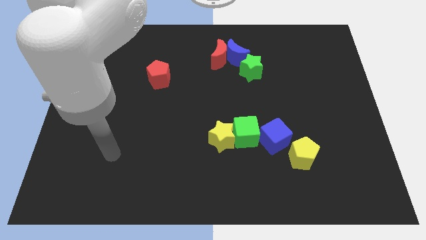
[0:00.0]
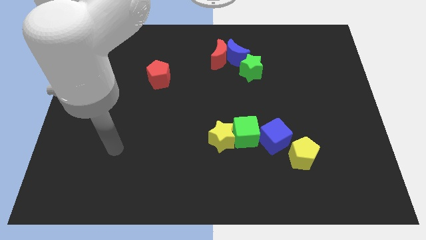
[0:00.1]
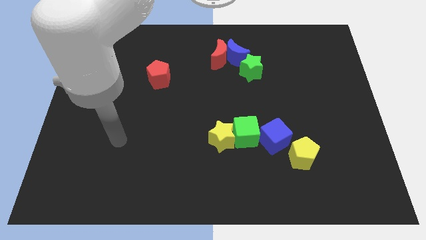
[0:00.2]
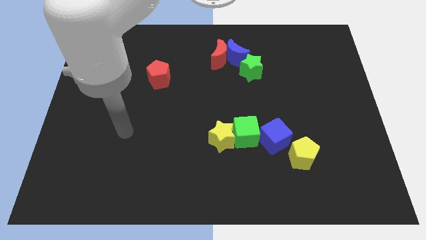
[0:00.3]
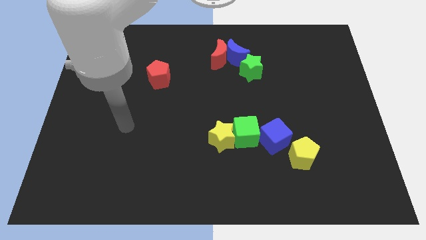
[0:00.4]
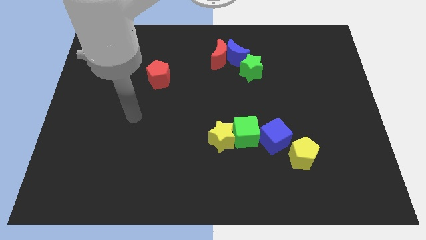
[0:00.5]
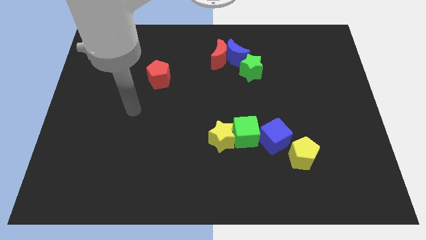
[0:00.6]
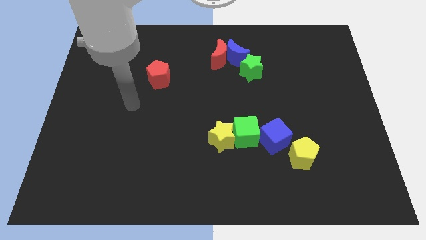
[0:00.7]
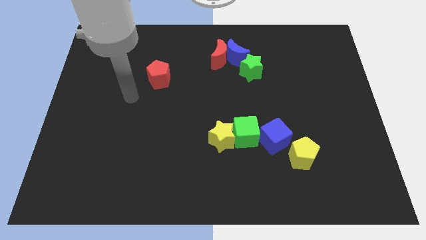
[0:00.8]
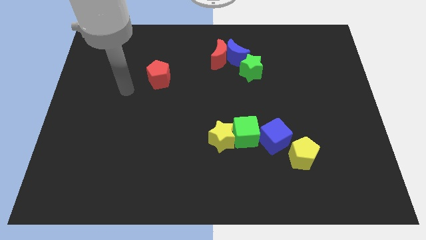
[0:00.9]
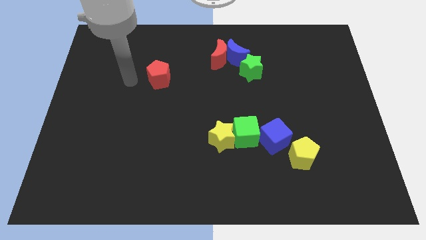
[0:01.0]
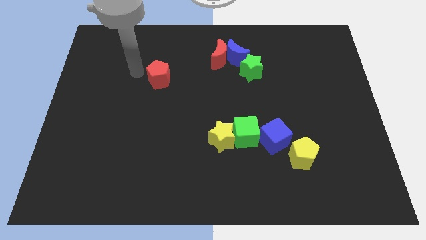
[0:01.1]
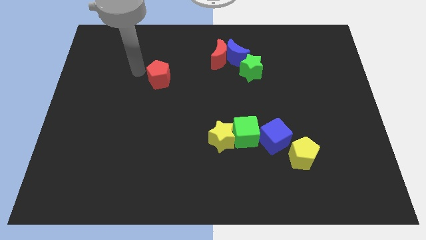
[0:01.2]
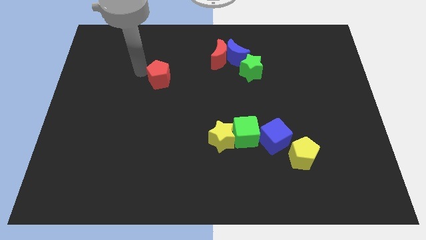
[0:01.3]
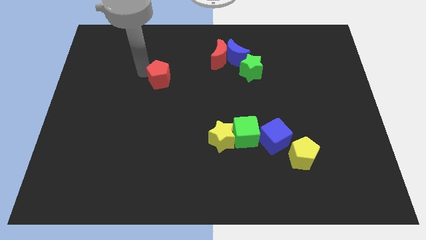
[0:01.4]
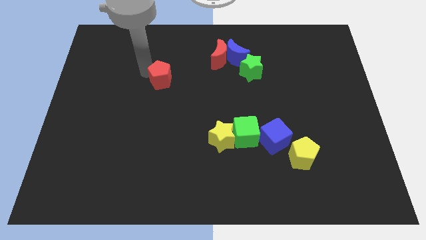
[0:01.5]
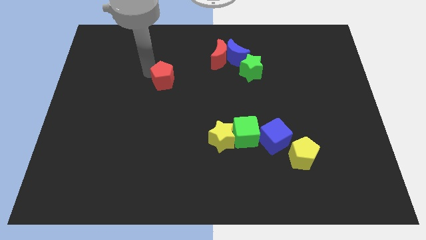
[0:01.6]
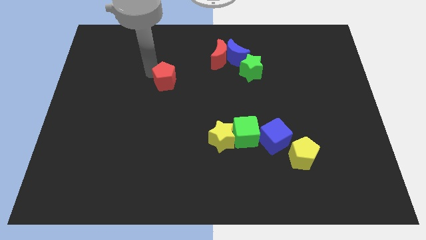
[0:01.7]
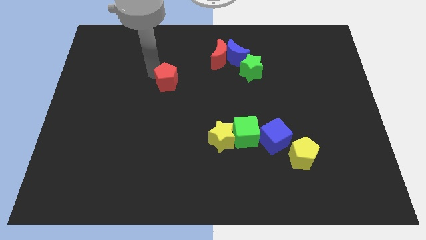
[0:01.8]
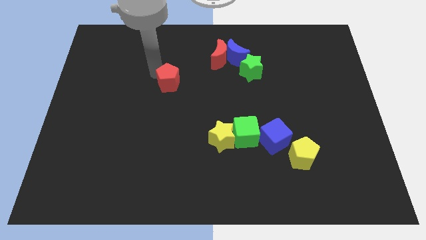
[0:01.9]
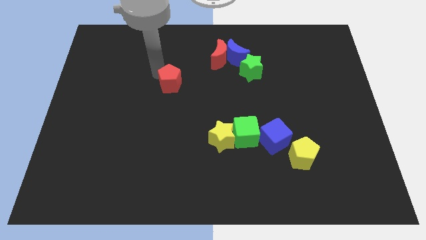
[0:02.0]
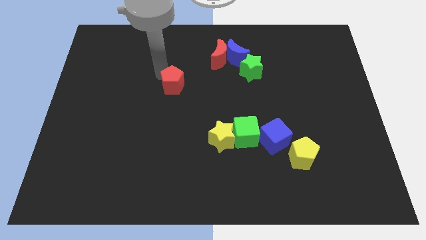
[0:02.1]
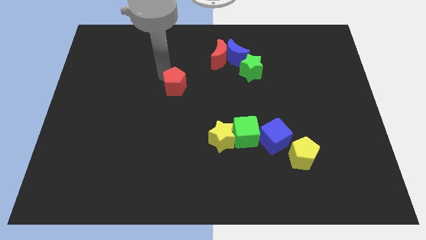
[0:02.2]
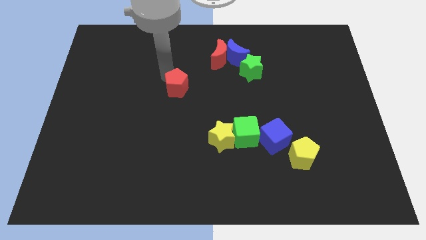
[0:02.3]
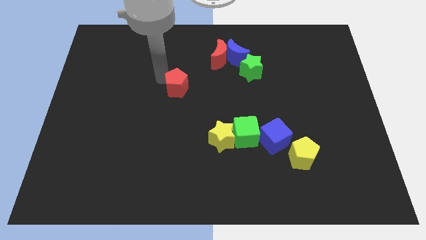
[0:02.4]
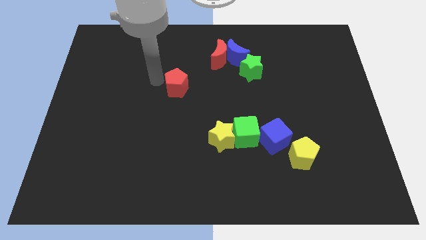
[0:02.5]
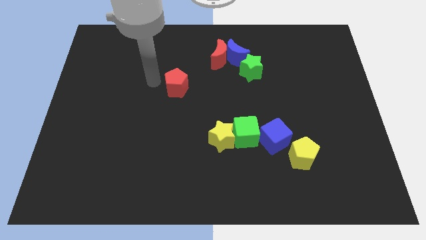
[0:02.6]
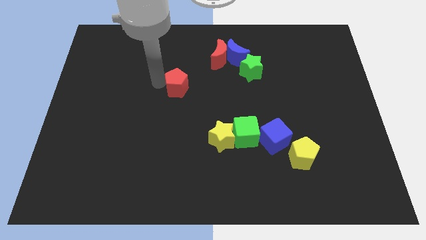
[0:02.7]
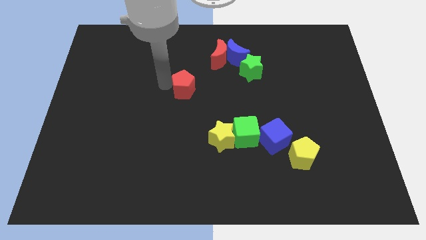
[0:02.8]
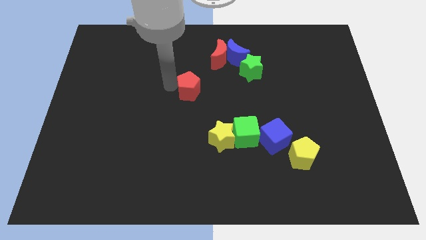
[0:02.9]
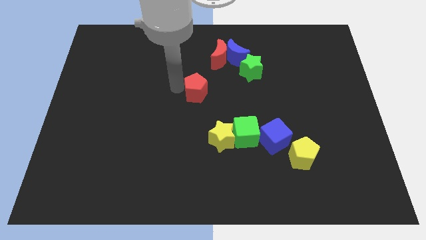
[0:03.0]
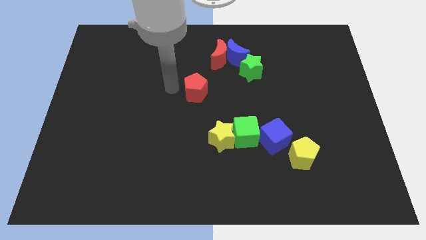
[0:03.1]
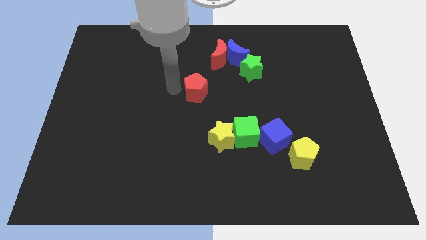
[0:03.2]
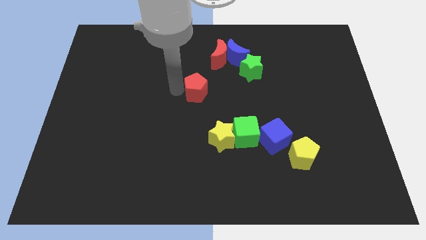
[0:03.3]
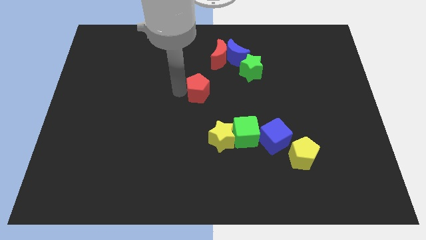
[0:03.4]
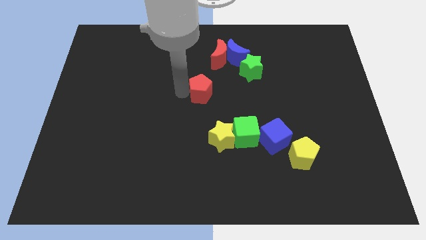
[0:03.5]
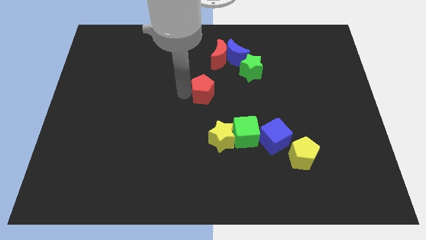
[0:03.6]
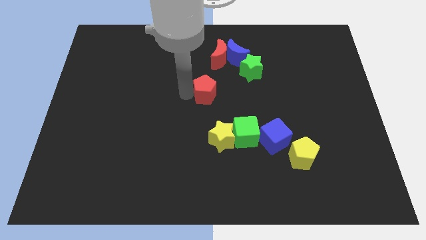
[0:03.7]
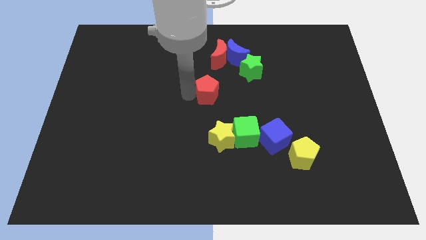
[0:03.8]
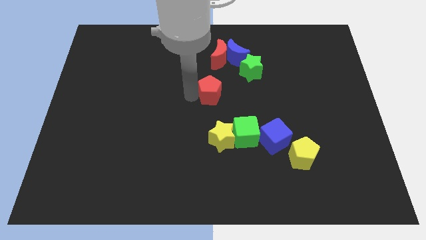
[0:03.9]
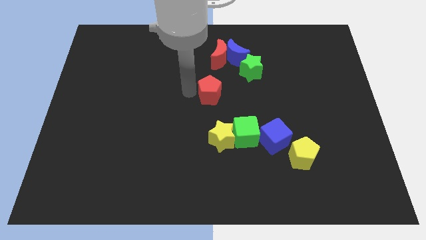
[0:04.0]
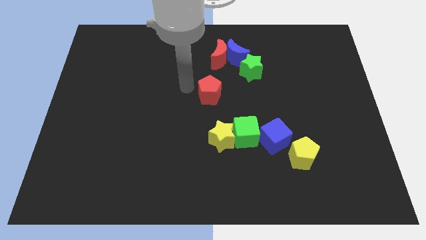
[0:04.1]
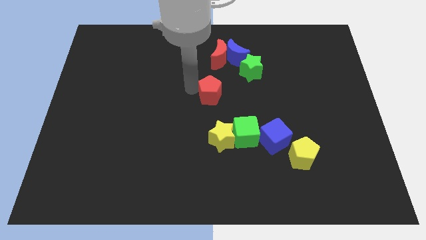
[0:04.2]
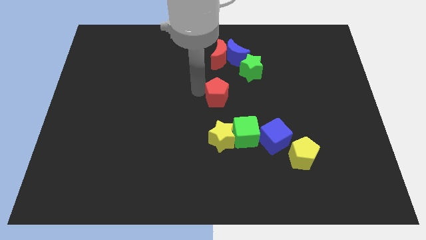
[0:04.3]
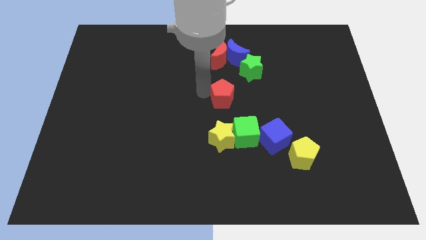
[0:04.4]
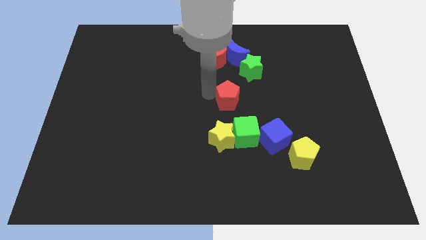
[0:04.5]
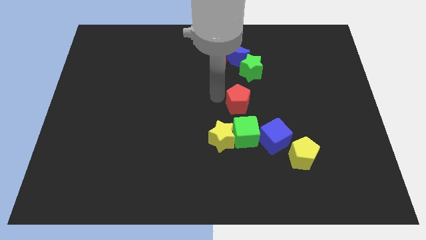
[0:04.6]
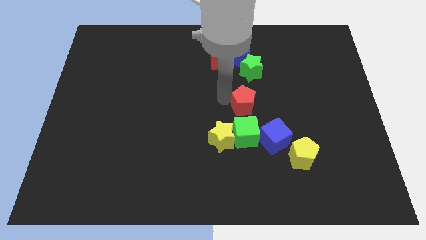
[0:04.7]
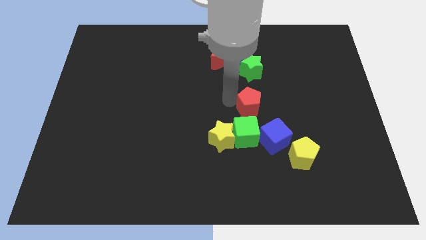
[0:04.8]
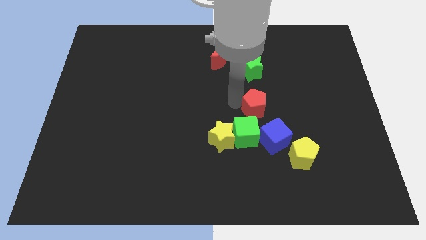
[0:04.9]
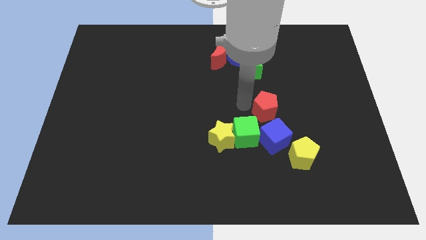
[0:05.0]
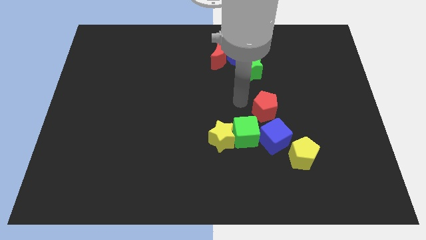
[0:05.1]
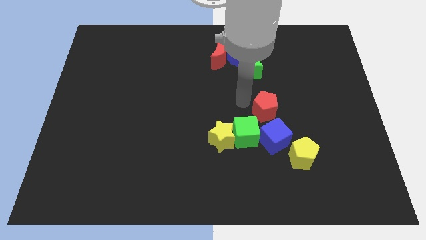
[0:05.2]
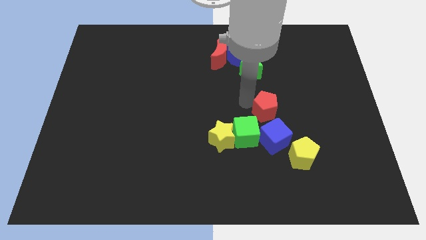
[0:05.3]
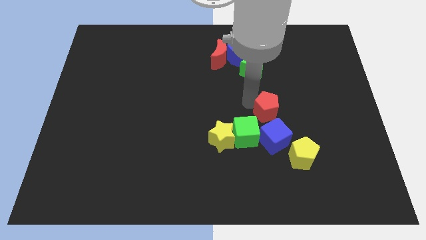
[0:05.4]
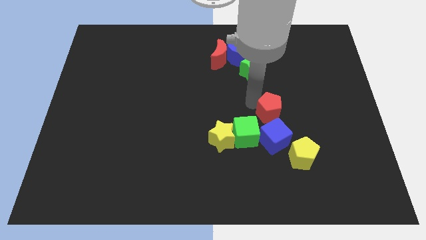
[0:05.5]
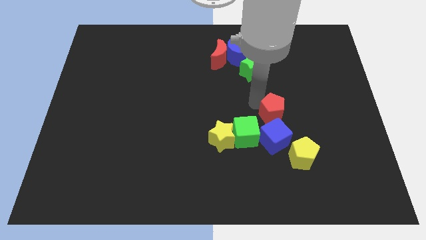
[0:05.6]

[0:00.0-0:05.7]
slide the red pentagon diagonally up and to the right of the blue cube

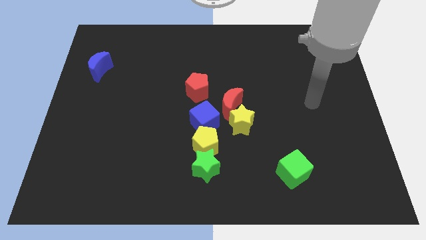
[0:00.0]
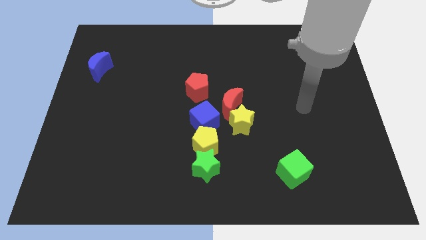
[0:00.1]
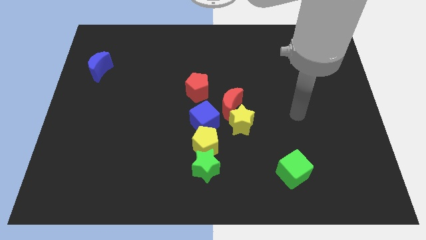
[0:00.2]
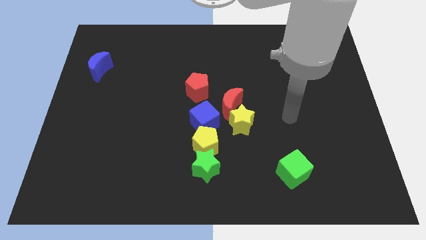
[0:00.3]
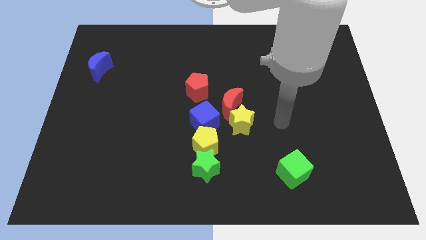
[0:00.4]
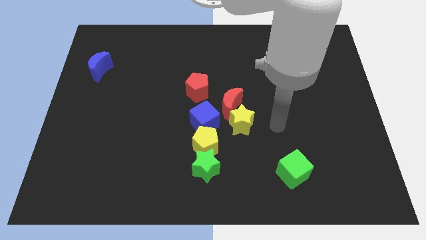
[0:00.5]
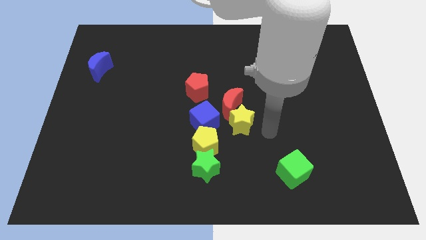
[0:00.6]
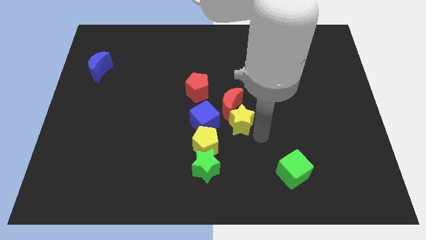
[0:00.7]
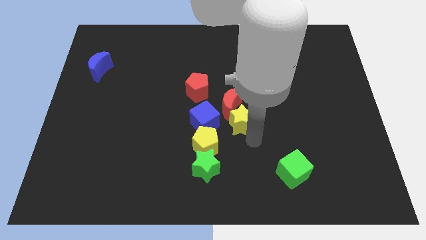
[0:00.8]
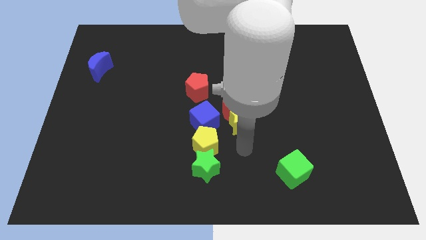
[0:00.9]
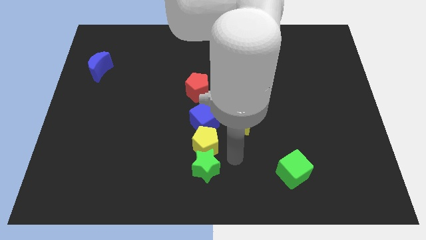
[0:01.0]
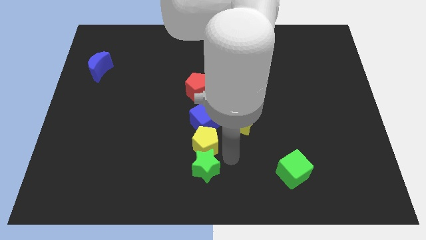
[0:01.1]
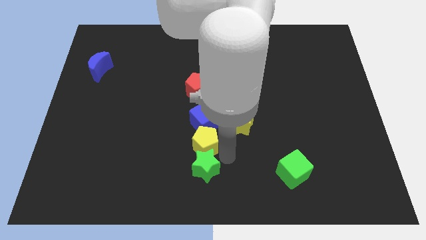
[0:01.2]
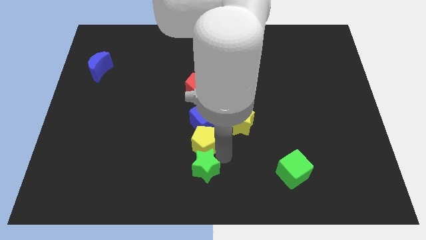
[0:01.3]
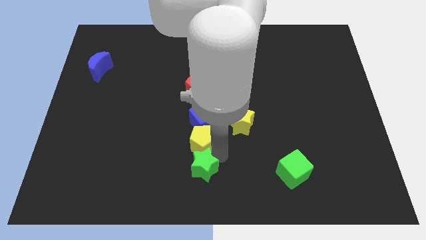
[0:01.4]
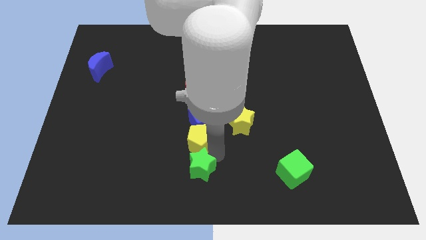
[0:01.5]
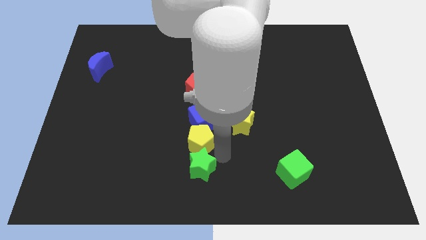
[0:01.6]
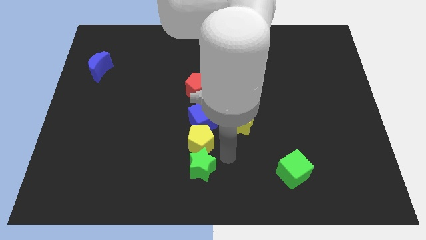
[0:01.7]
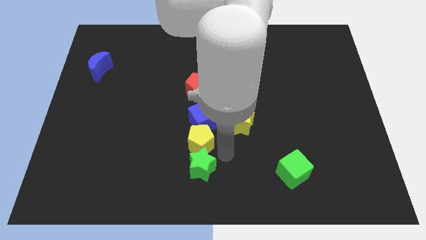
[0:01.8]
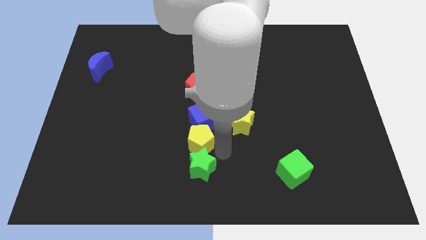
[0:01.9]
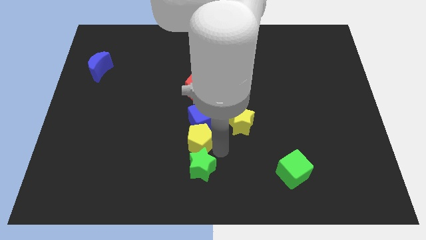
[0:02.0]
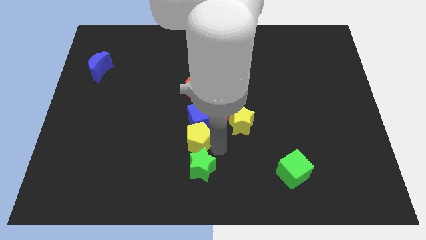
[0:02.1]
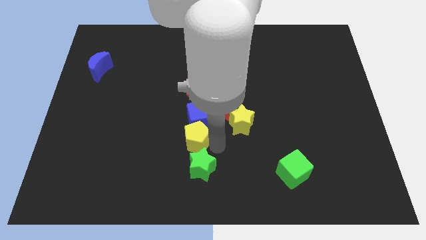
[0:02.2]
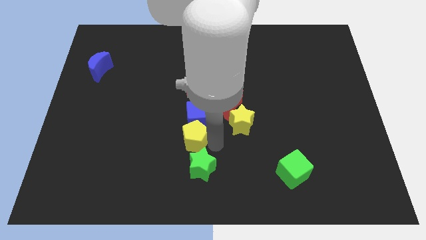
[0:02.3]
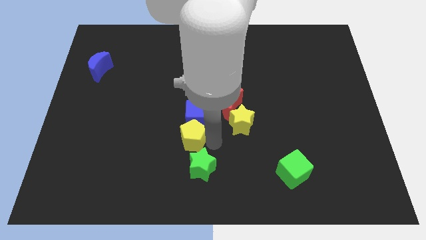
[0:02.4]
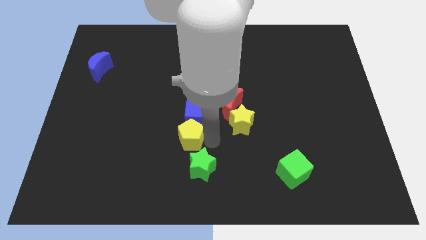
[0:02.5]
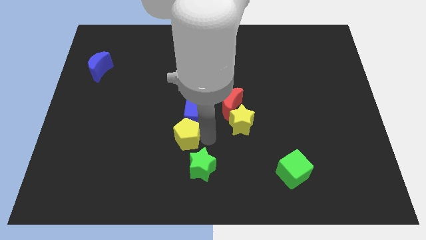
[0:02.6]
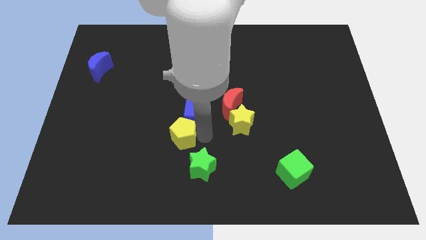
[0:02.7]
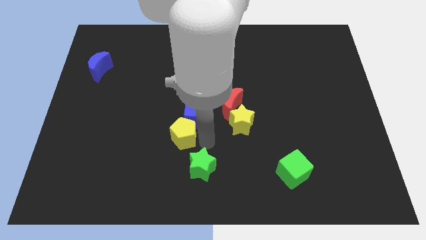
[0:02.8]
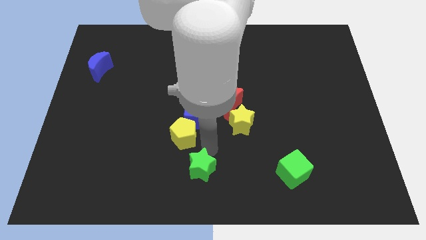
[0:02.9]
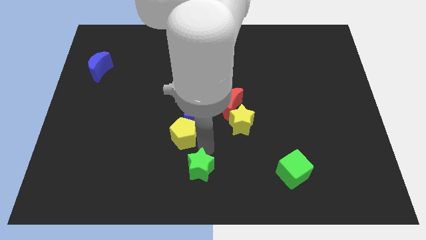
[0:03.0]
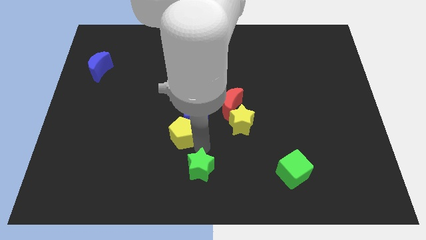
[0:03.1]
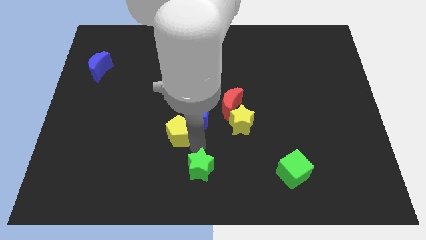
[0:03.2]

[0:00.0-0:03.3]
put the yellow pentagon to the left side of the blue cube
